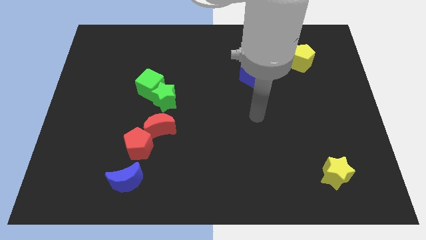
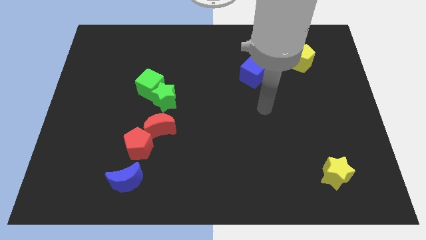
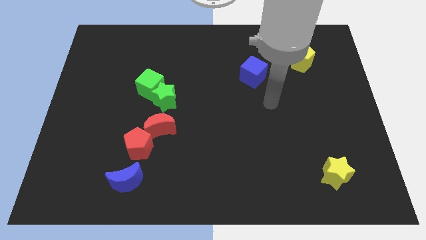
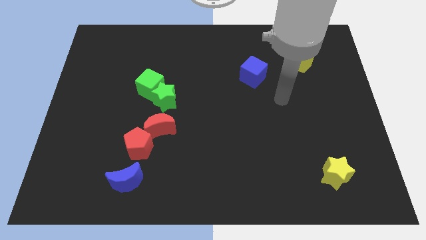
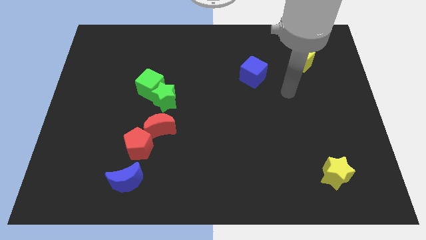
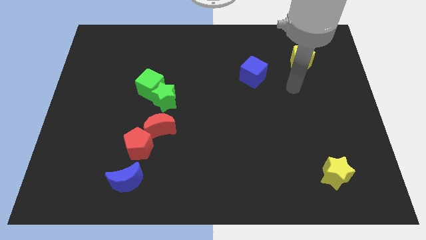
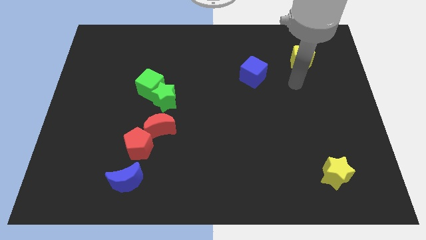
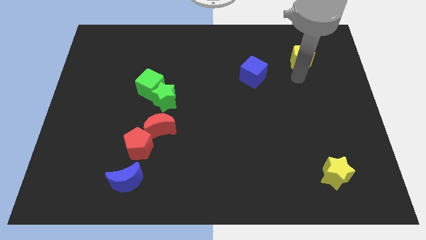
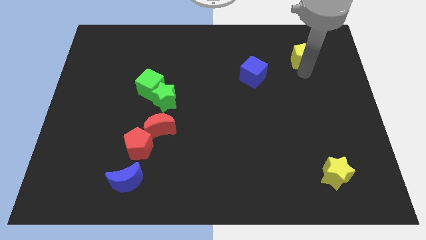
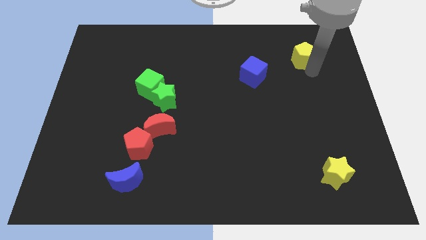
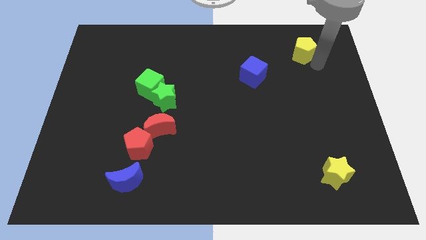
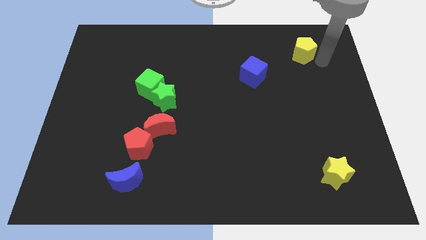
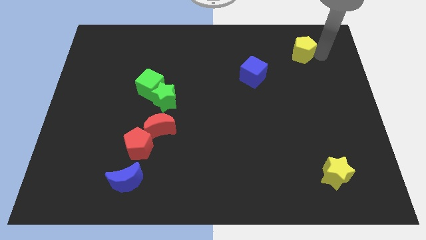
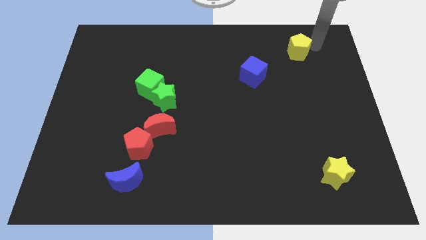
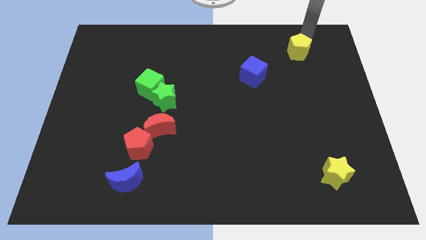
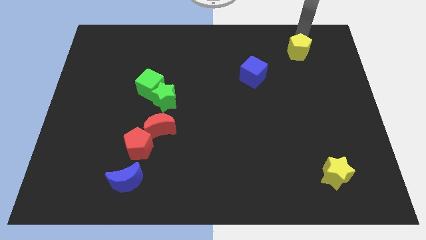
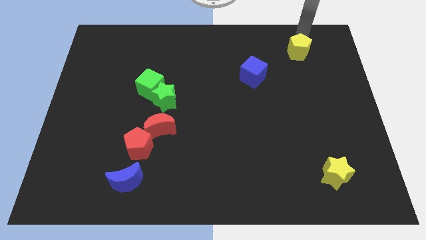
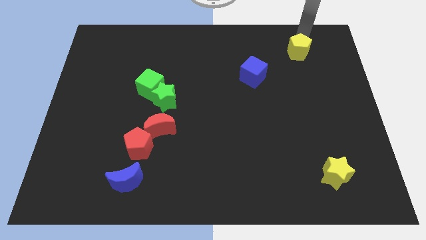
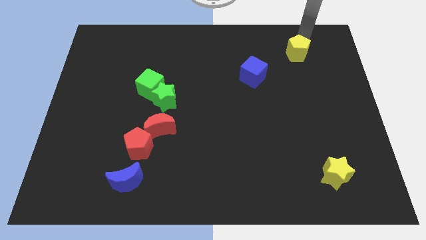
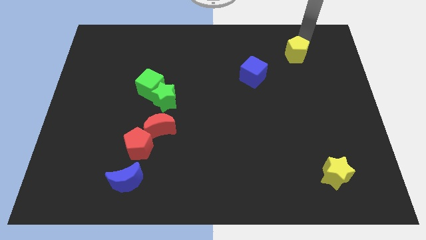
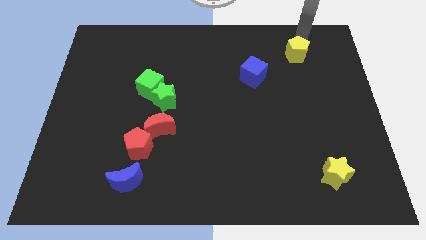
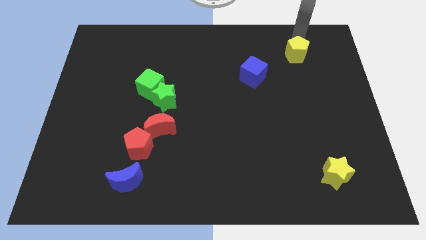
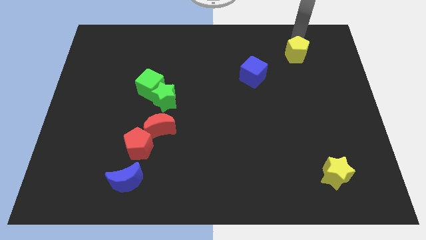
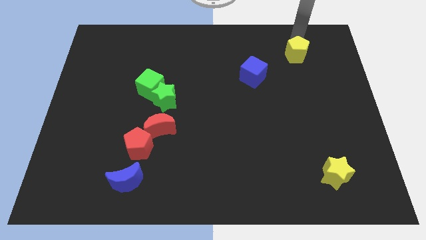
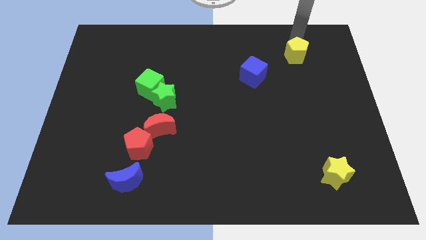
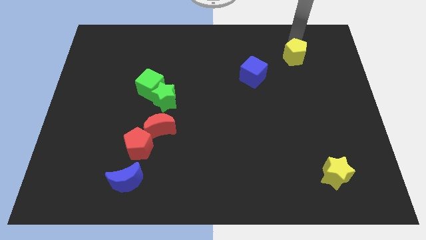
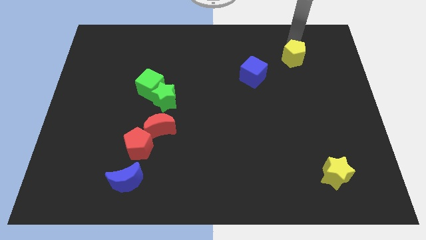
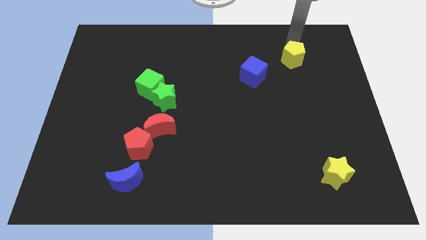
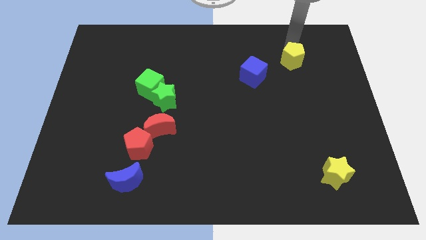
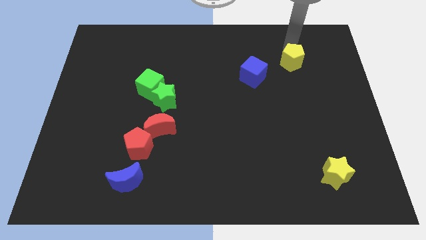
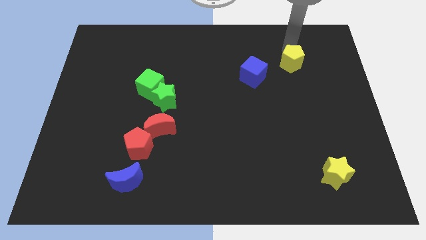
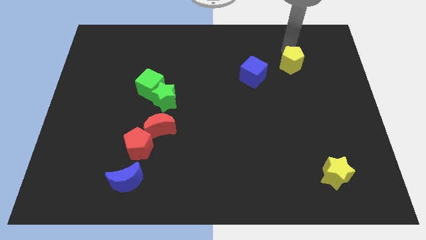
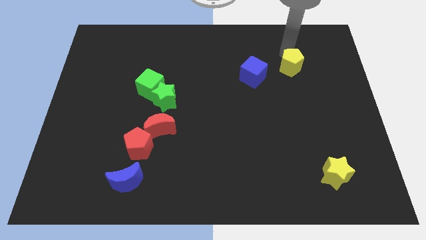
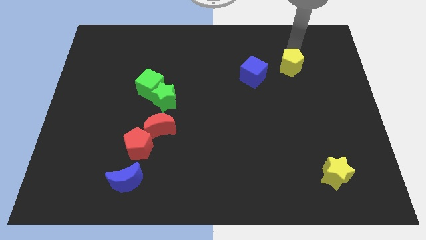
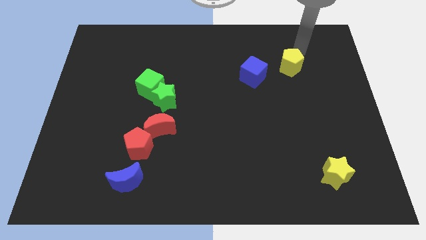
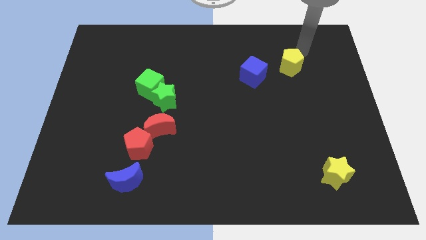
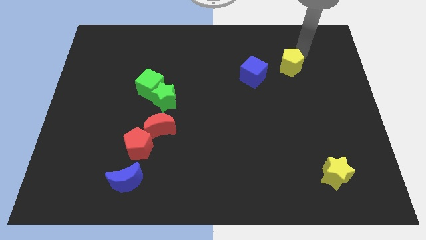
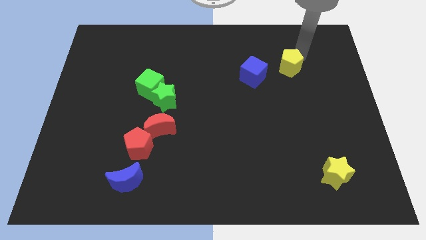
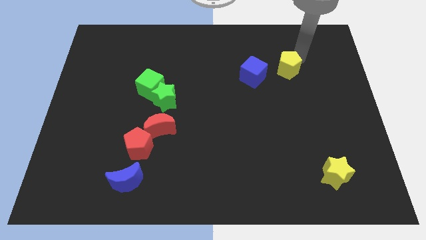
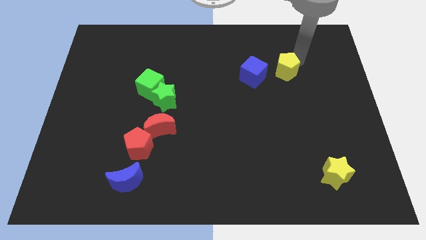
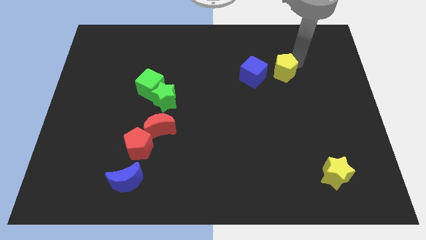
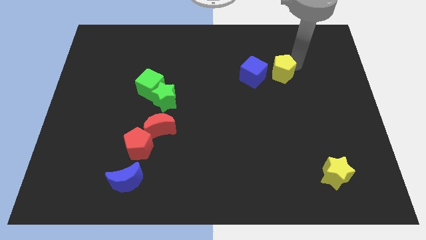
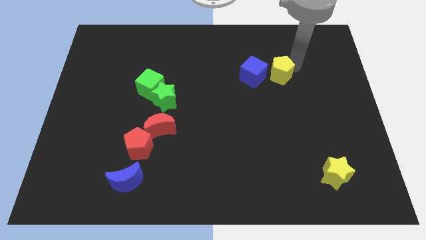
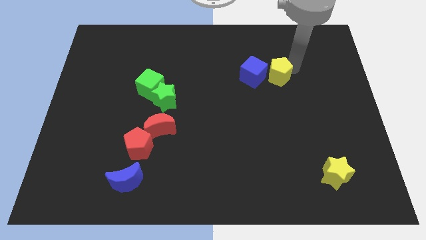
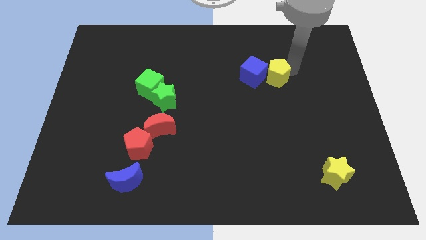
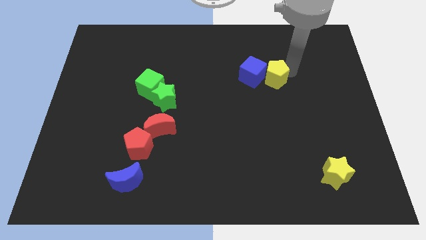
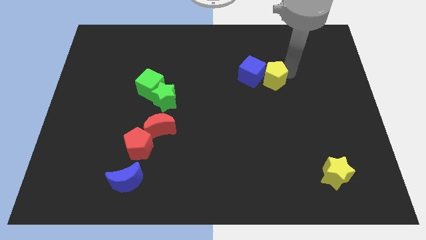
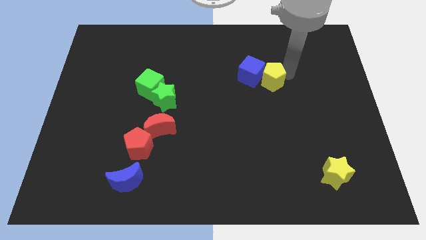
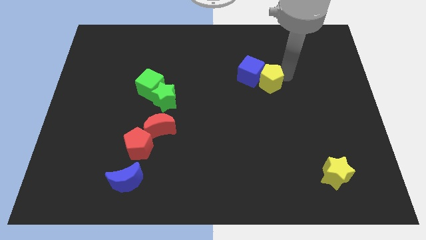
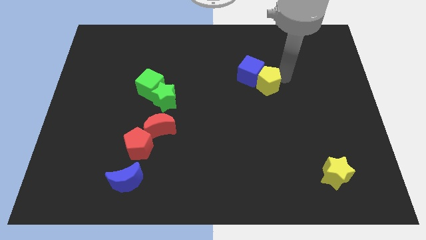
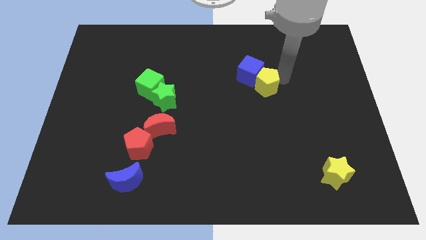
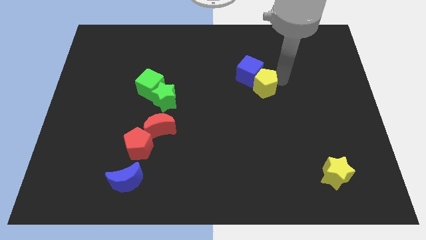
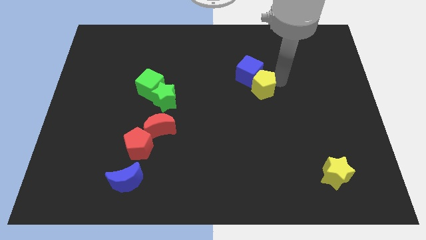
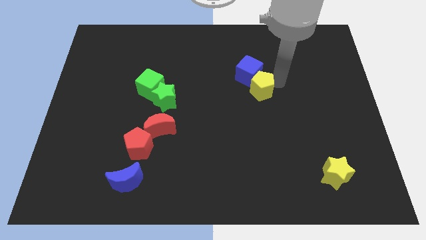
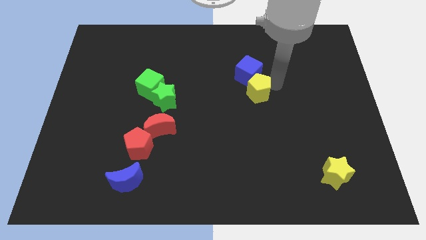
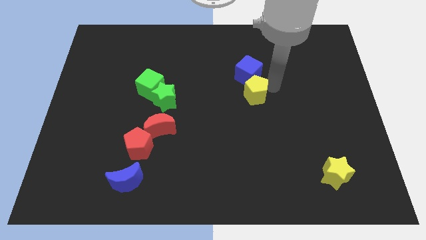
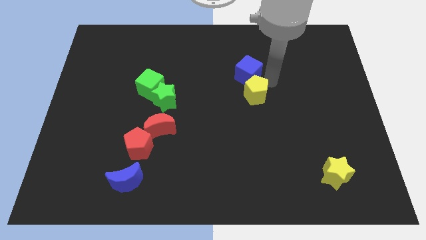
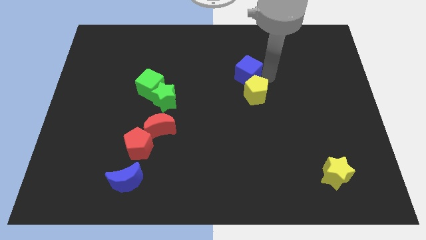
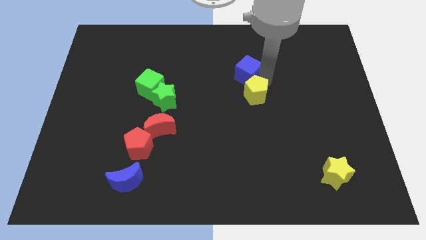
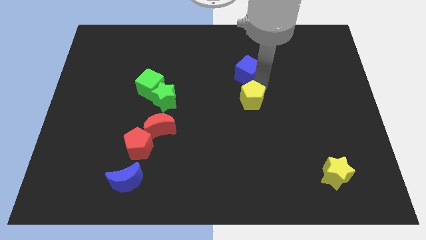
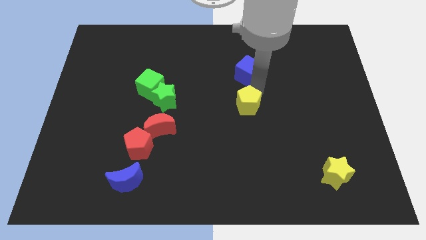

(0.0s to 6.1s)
push the yellow pentagon diagonally downwards and left

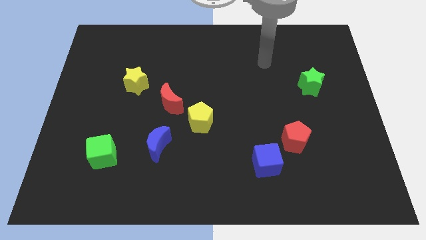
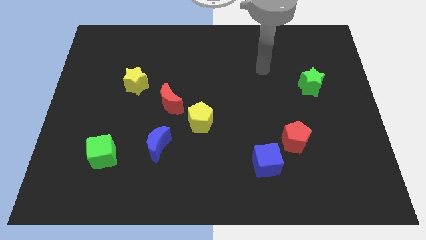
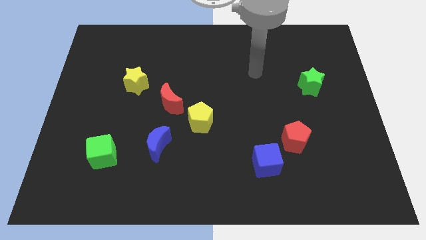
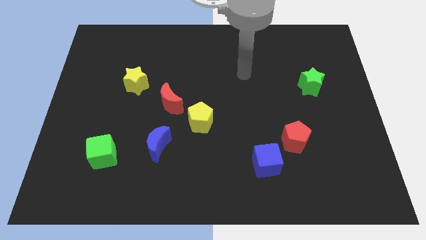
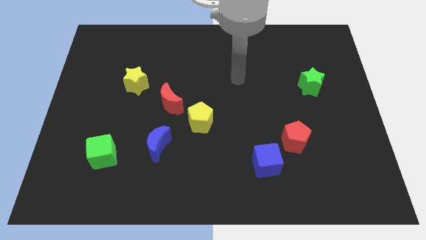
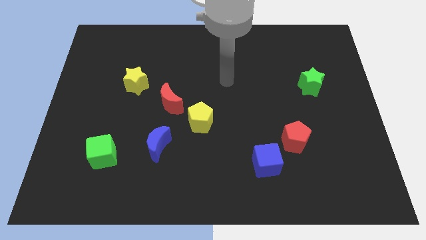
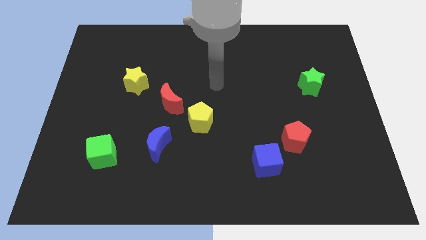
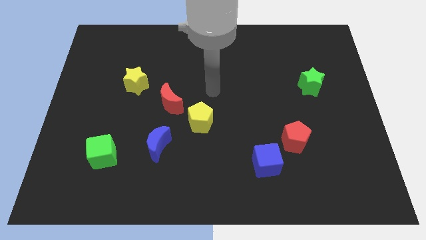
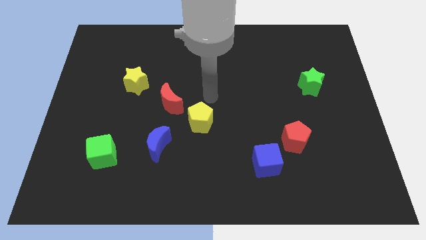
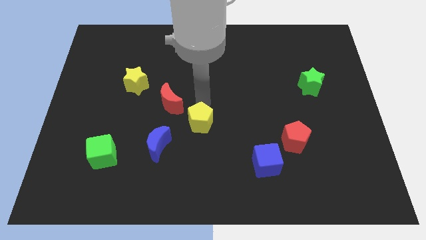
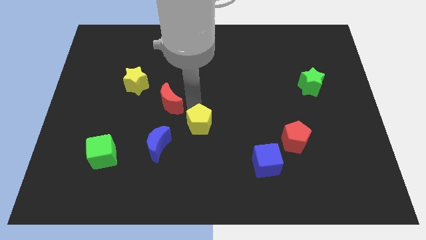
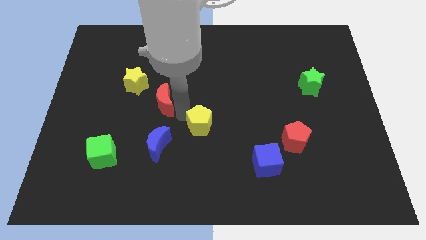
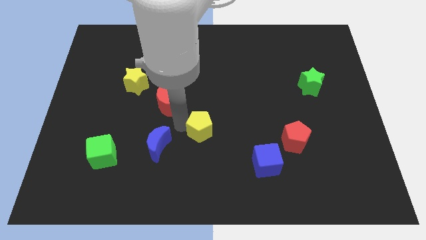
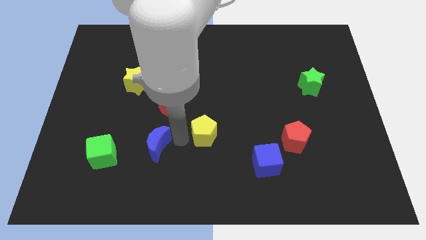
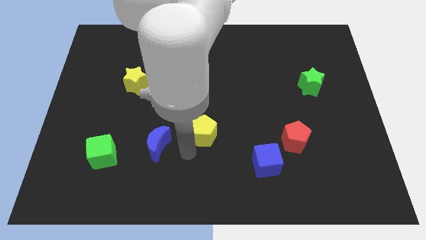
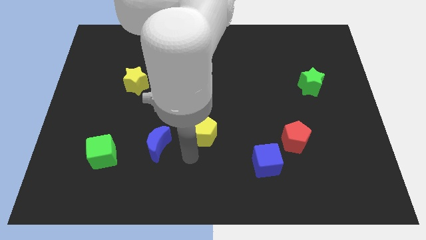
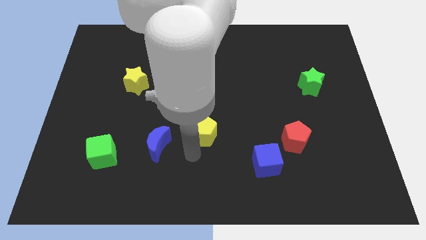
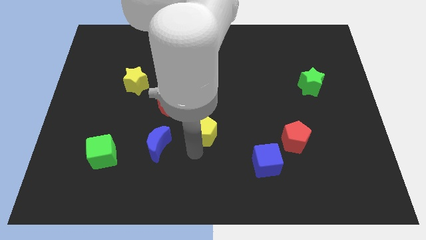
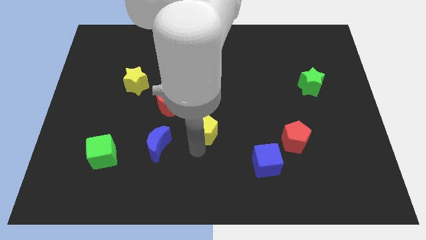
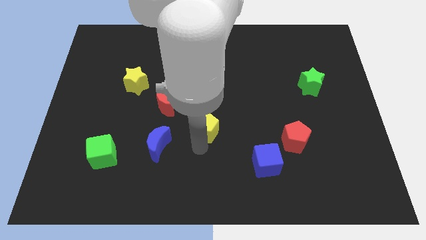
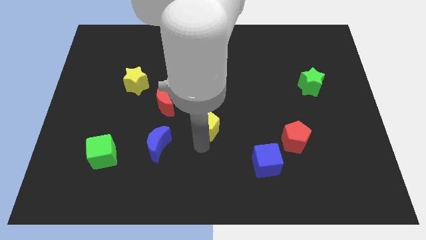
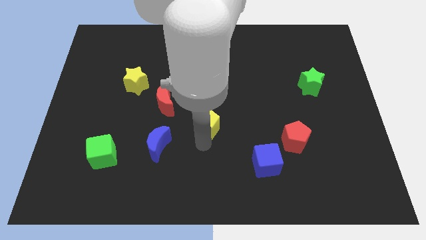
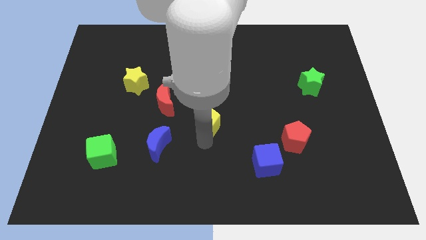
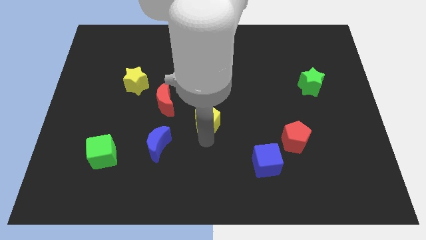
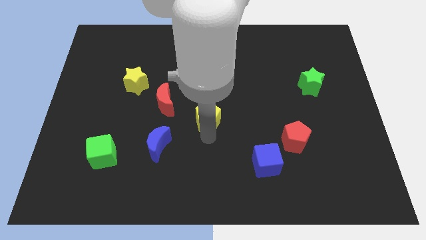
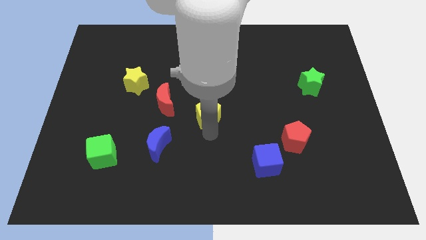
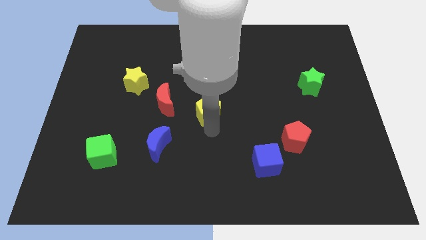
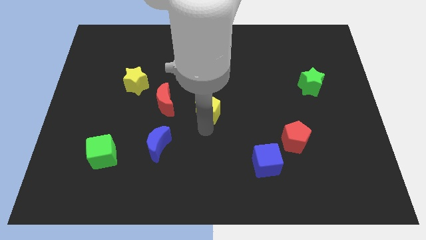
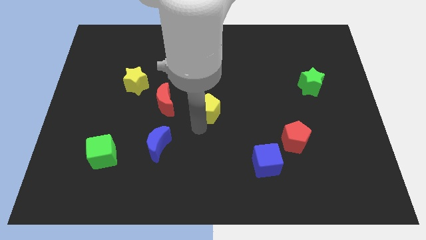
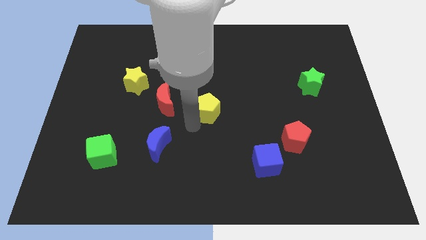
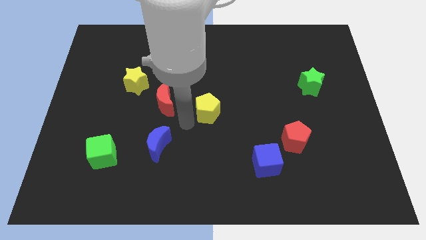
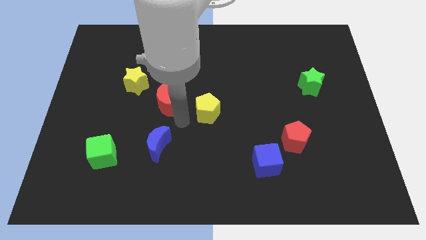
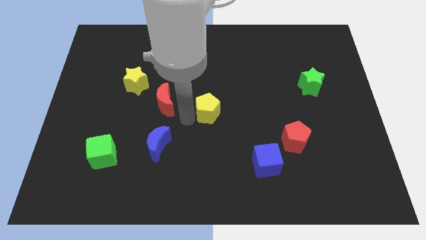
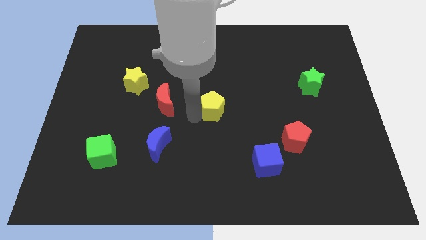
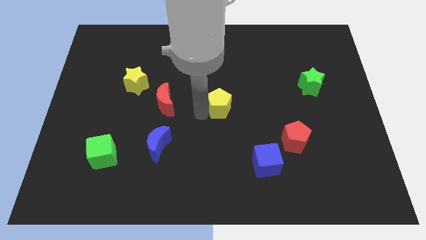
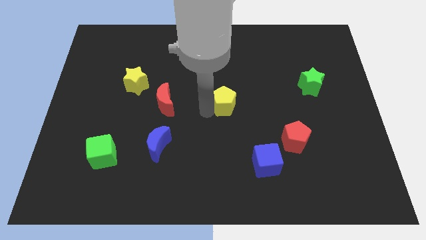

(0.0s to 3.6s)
slightly move the yellow pentagon up and right
